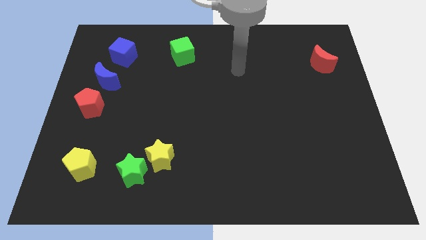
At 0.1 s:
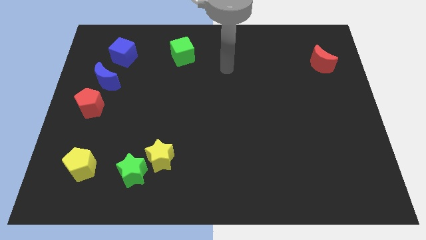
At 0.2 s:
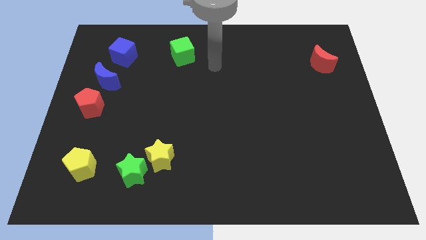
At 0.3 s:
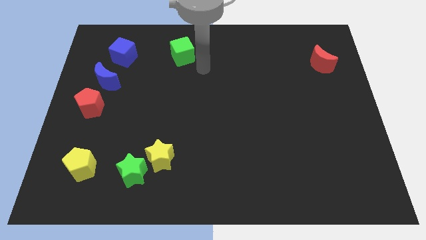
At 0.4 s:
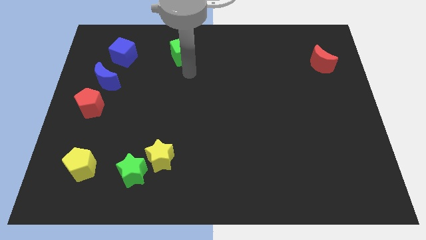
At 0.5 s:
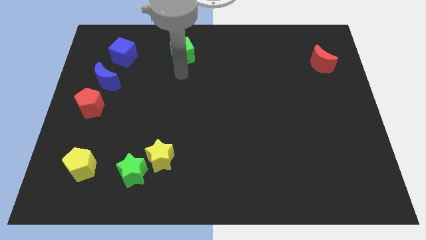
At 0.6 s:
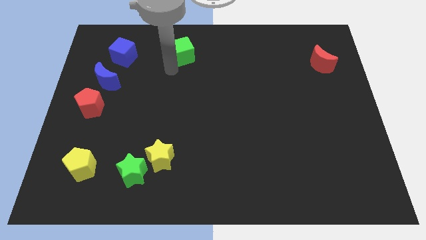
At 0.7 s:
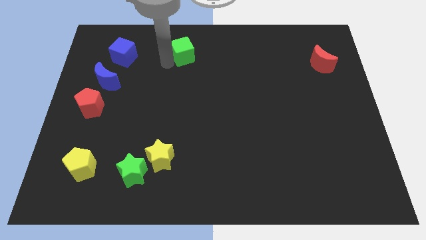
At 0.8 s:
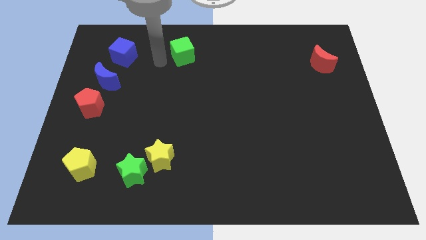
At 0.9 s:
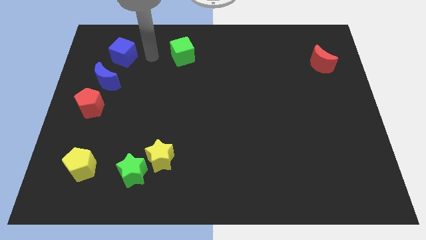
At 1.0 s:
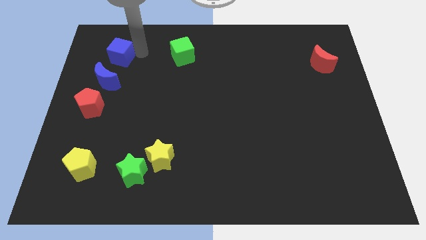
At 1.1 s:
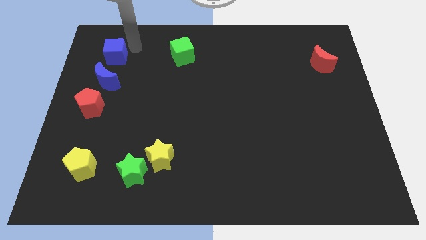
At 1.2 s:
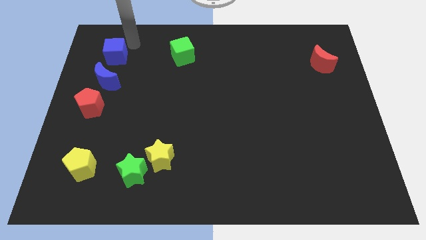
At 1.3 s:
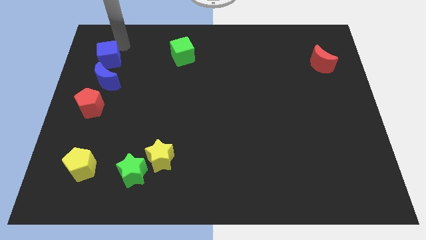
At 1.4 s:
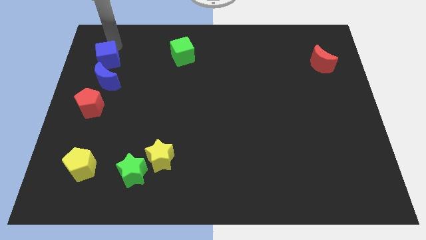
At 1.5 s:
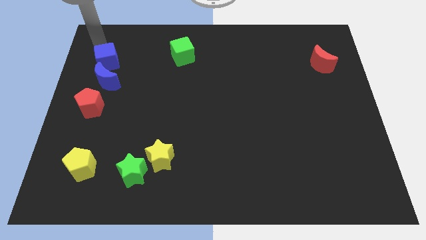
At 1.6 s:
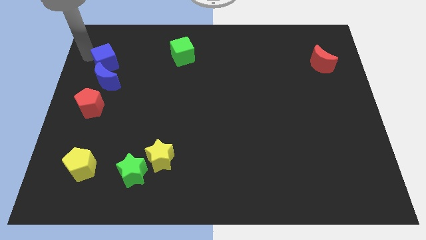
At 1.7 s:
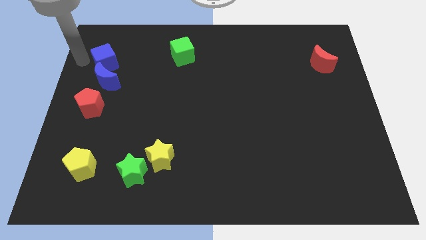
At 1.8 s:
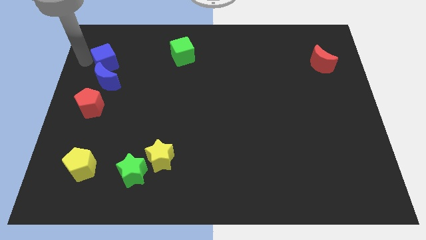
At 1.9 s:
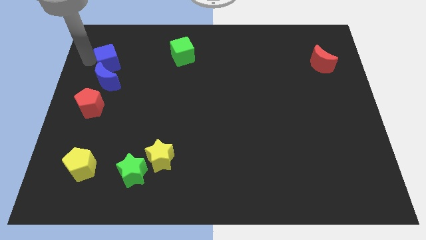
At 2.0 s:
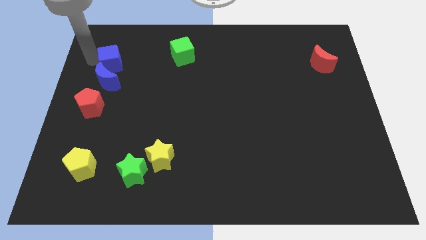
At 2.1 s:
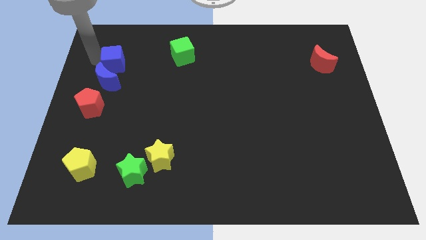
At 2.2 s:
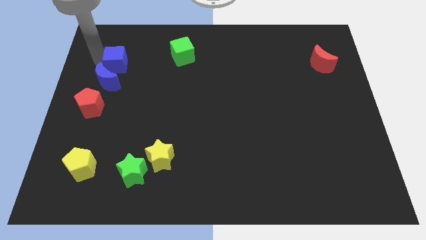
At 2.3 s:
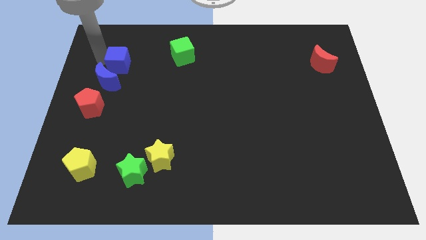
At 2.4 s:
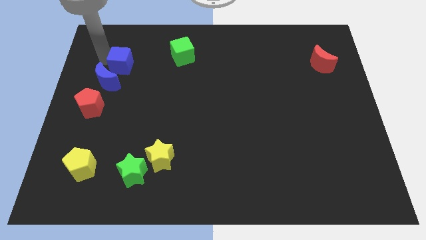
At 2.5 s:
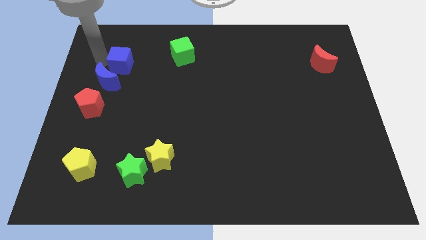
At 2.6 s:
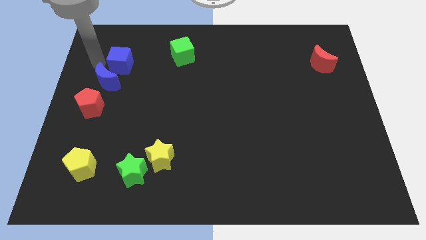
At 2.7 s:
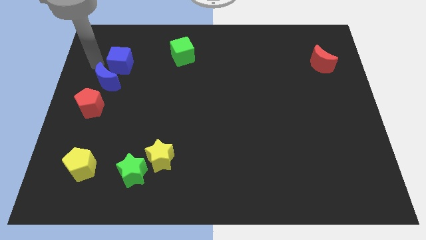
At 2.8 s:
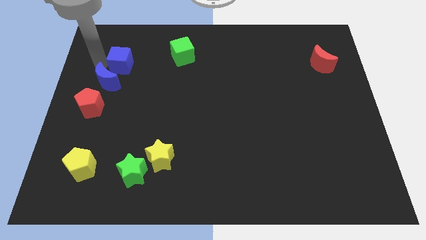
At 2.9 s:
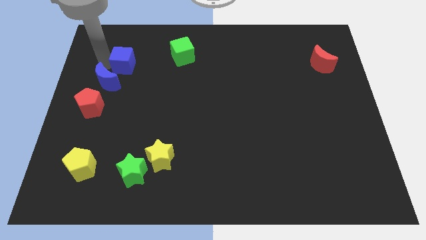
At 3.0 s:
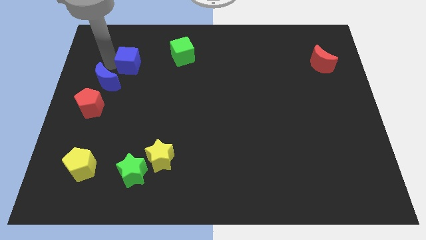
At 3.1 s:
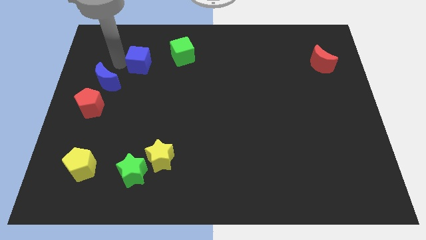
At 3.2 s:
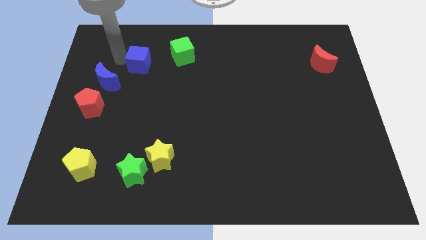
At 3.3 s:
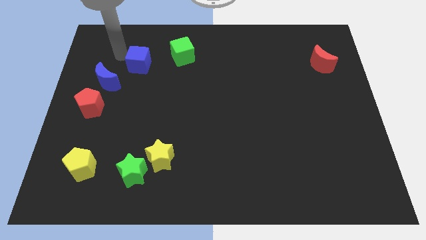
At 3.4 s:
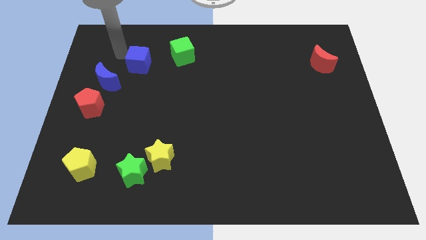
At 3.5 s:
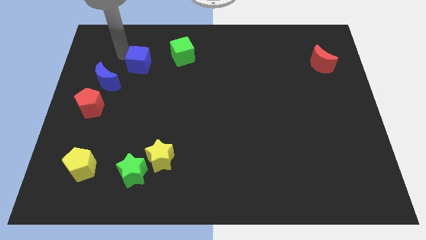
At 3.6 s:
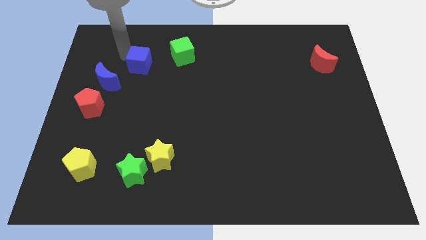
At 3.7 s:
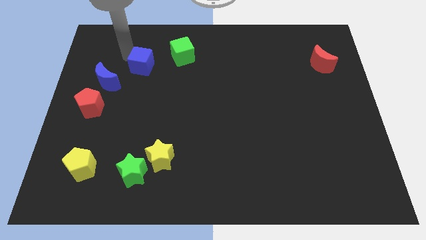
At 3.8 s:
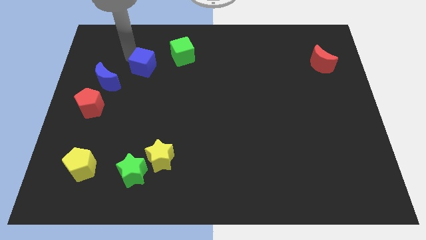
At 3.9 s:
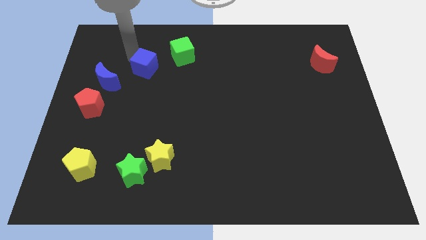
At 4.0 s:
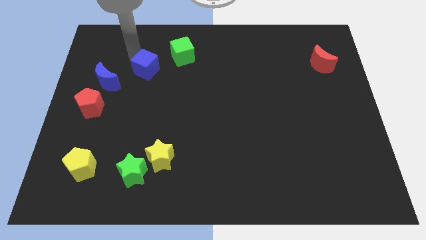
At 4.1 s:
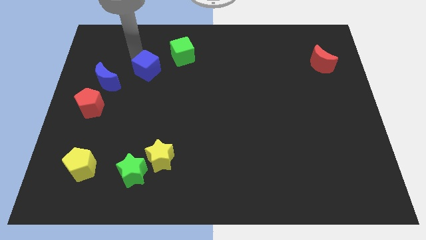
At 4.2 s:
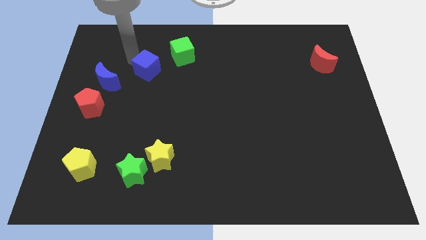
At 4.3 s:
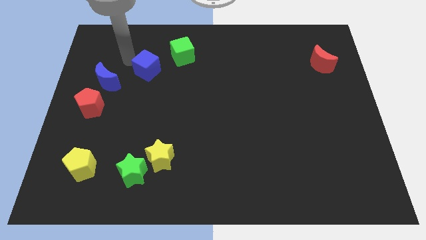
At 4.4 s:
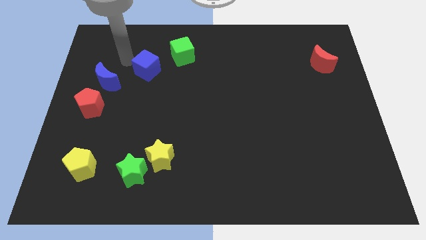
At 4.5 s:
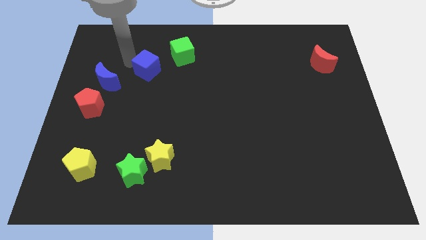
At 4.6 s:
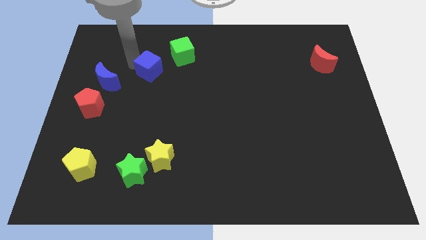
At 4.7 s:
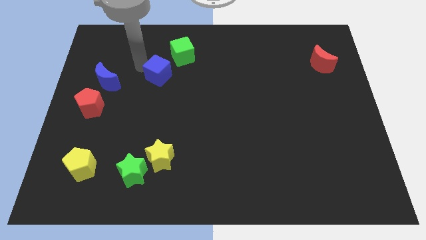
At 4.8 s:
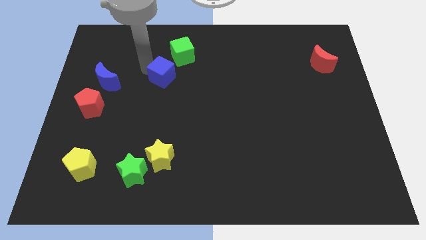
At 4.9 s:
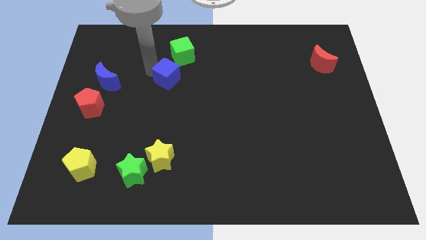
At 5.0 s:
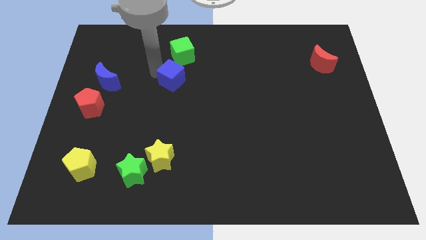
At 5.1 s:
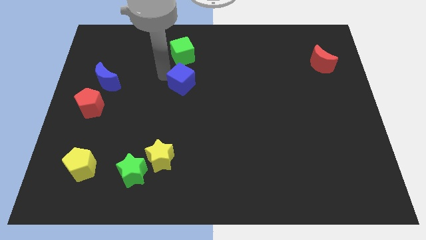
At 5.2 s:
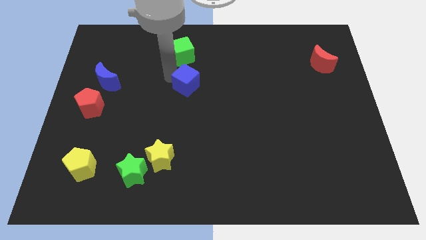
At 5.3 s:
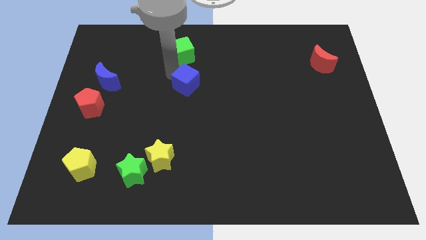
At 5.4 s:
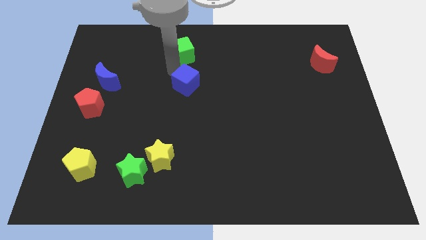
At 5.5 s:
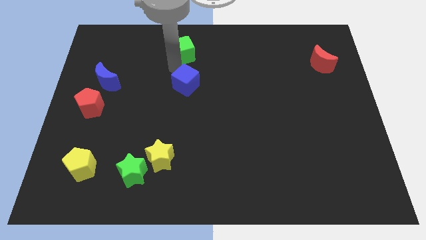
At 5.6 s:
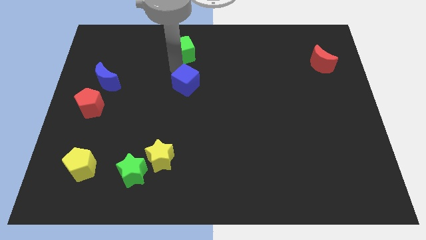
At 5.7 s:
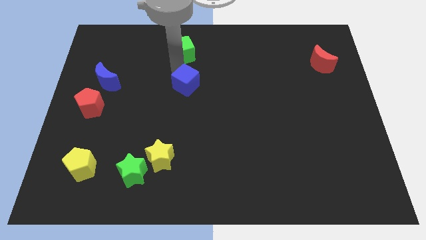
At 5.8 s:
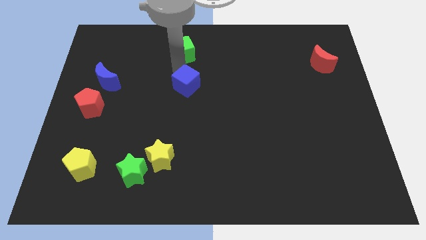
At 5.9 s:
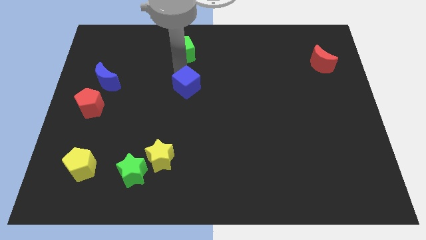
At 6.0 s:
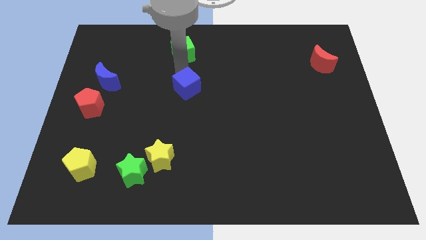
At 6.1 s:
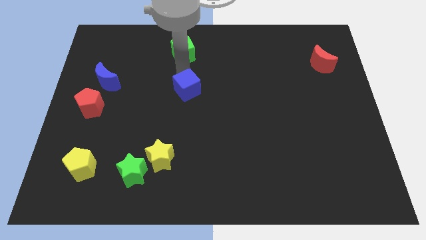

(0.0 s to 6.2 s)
slide the blue cube downwards and then to the right

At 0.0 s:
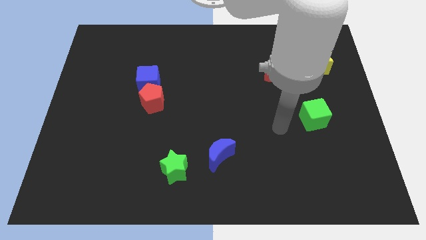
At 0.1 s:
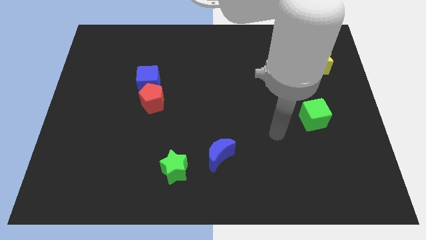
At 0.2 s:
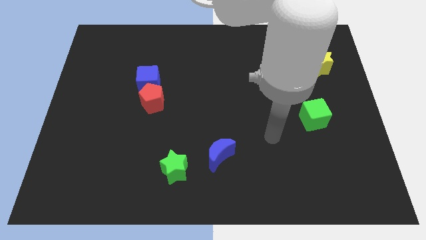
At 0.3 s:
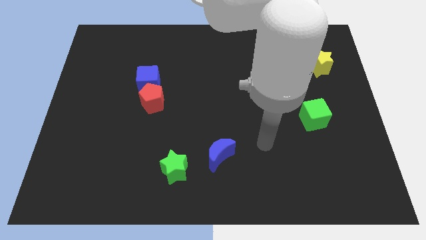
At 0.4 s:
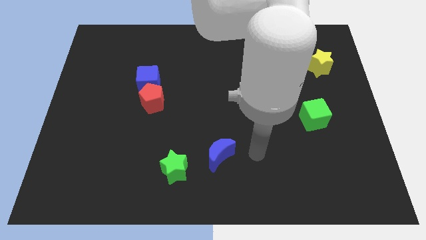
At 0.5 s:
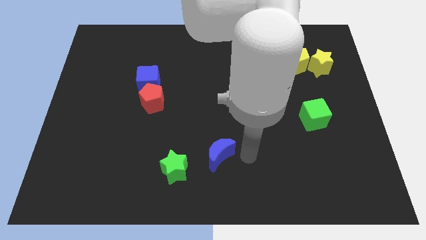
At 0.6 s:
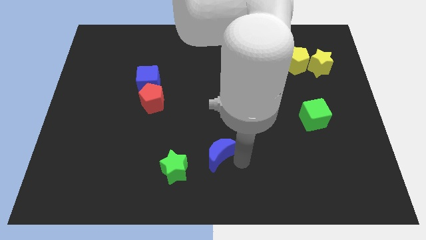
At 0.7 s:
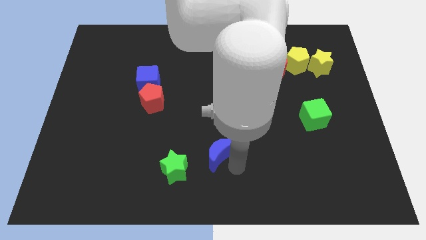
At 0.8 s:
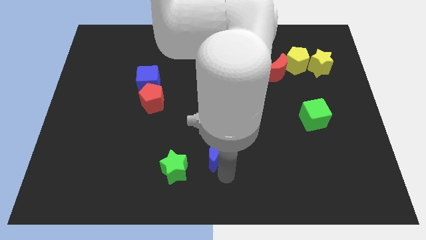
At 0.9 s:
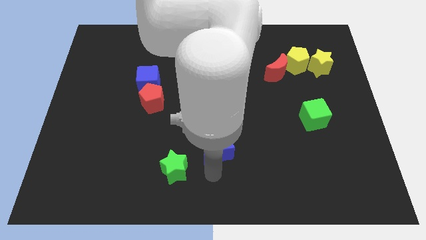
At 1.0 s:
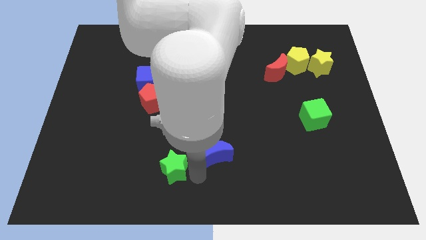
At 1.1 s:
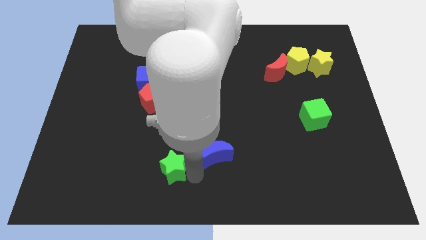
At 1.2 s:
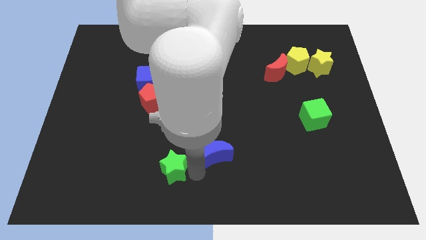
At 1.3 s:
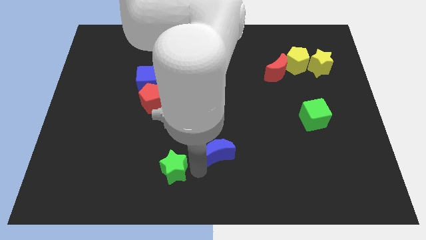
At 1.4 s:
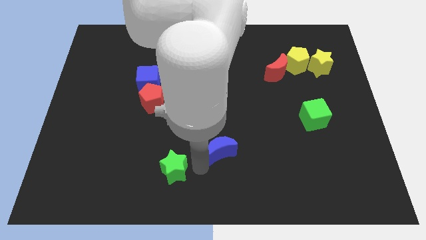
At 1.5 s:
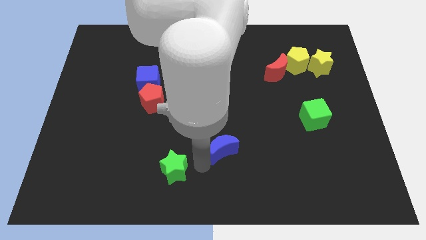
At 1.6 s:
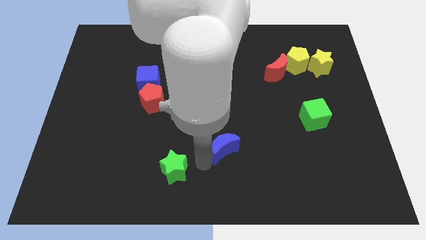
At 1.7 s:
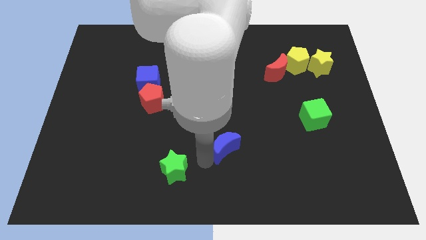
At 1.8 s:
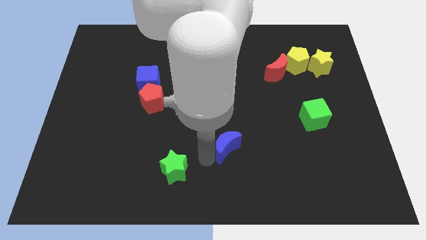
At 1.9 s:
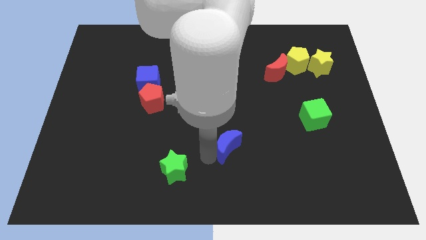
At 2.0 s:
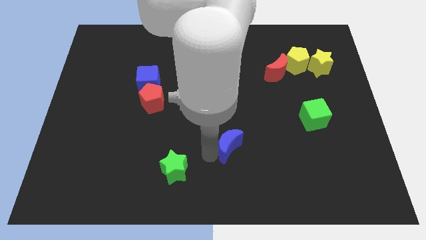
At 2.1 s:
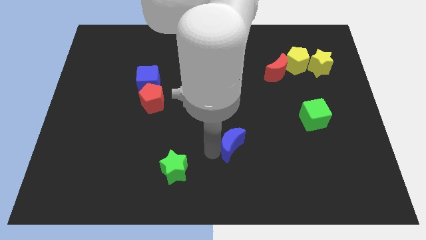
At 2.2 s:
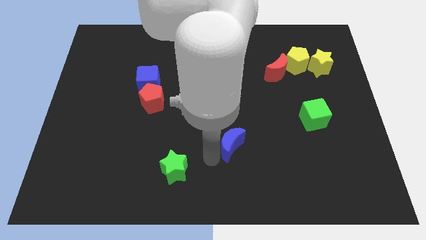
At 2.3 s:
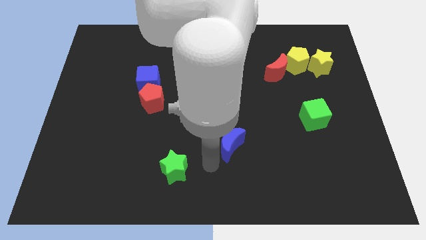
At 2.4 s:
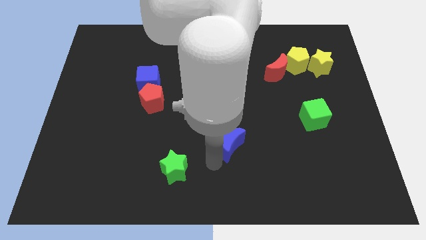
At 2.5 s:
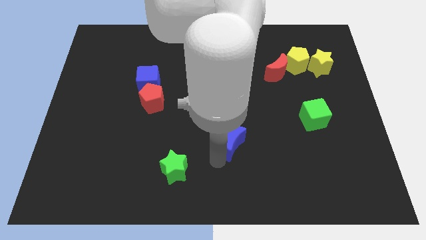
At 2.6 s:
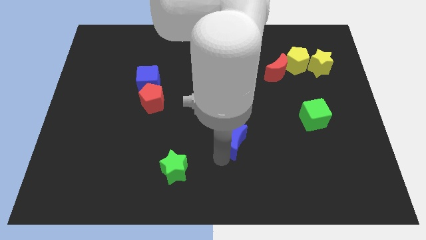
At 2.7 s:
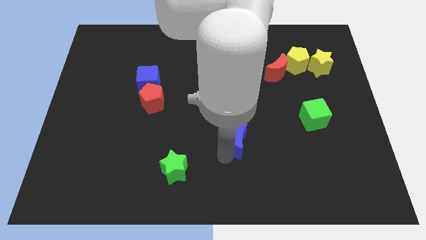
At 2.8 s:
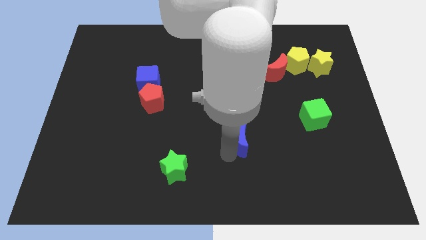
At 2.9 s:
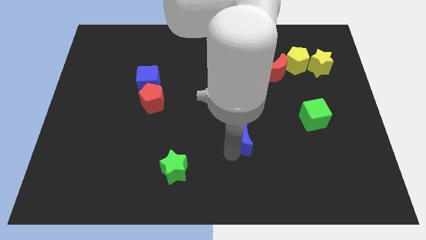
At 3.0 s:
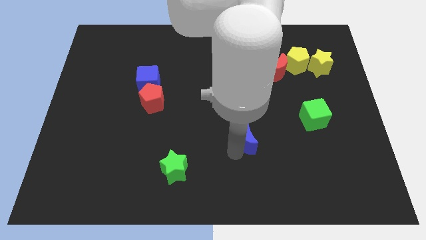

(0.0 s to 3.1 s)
push the blue moon somewhat up and then right
